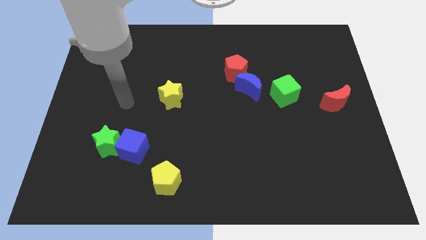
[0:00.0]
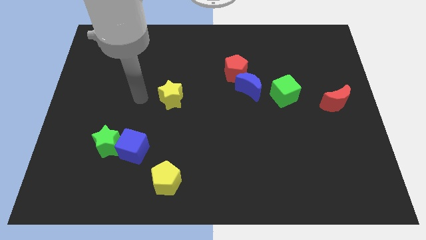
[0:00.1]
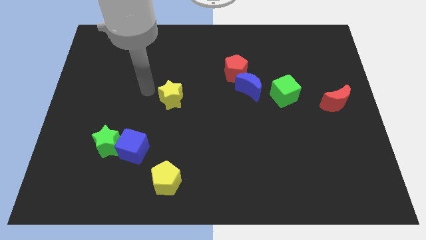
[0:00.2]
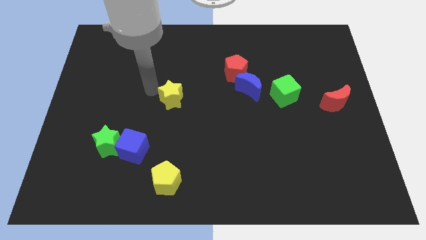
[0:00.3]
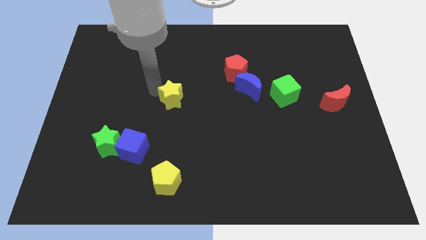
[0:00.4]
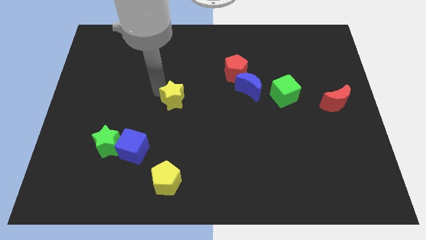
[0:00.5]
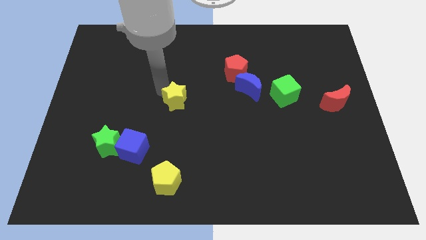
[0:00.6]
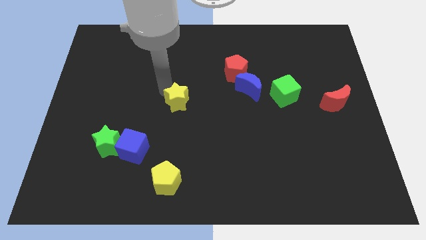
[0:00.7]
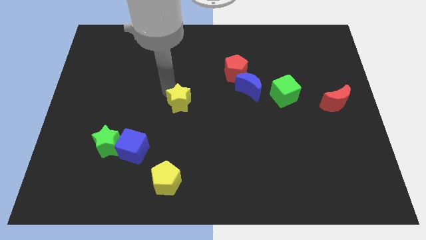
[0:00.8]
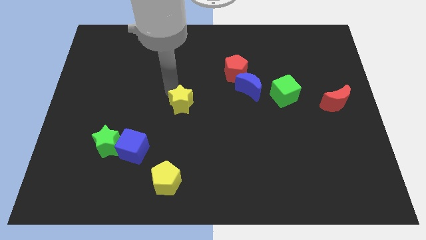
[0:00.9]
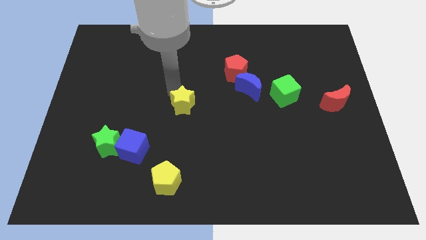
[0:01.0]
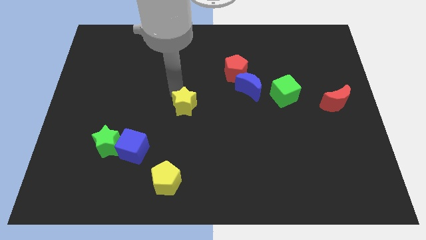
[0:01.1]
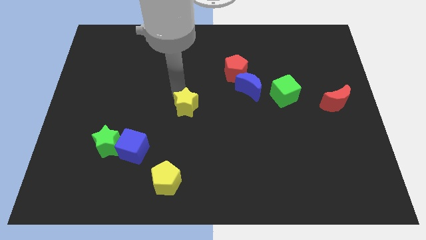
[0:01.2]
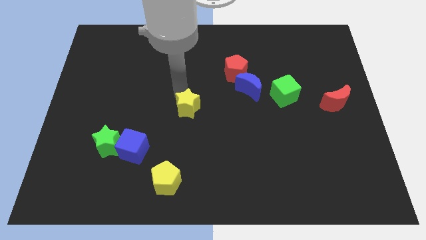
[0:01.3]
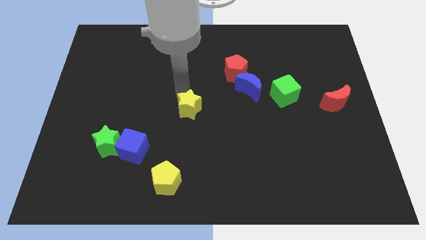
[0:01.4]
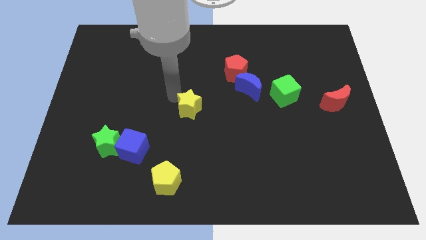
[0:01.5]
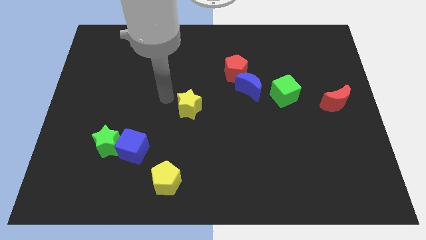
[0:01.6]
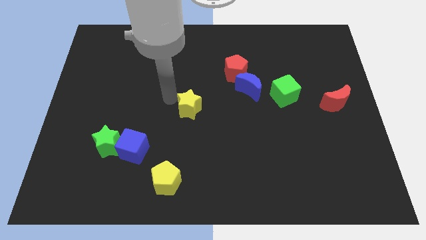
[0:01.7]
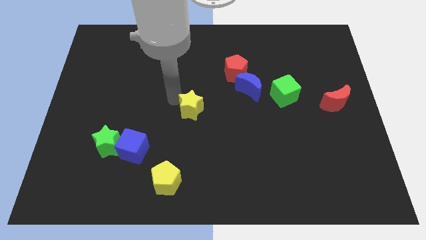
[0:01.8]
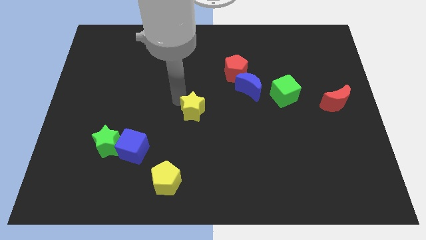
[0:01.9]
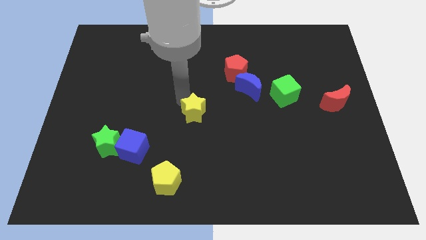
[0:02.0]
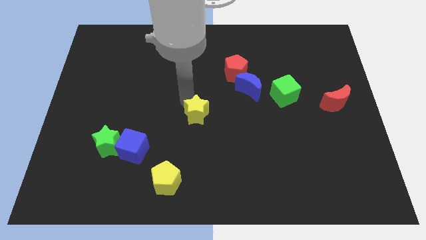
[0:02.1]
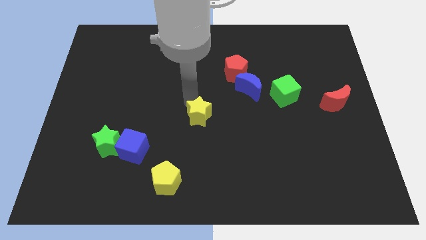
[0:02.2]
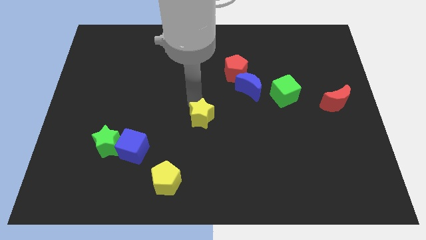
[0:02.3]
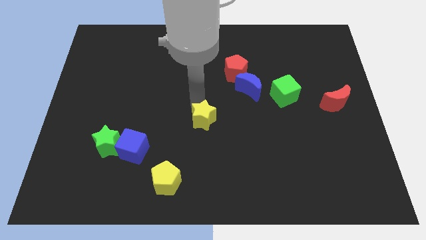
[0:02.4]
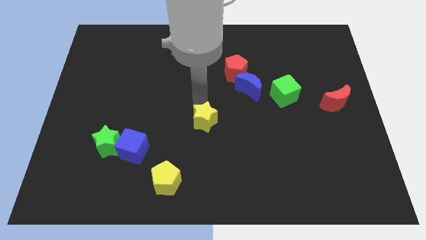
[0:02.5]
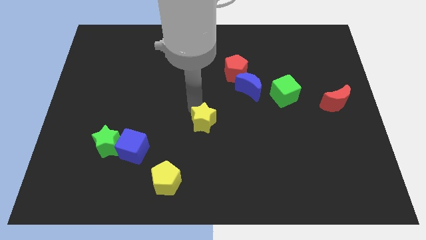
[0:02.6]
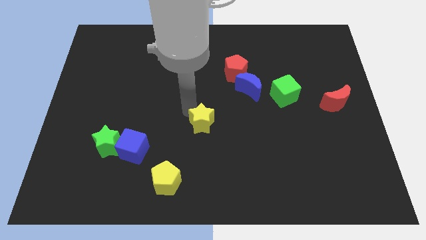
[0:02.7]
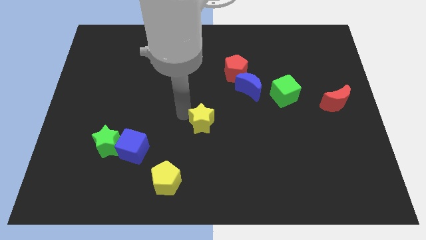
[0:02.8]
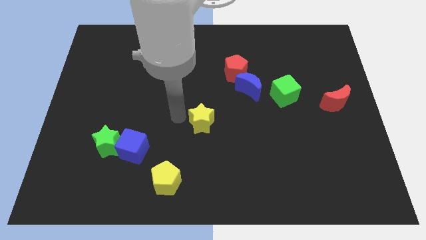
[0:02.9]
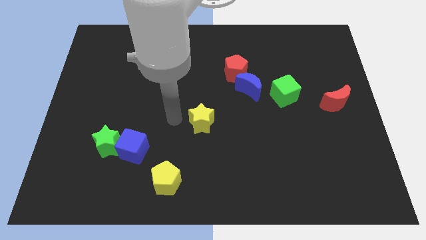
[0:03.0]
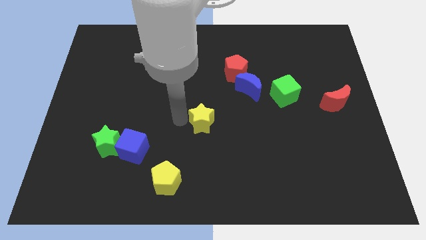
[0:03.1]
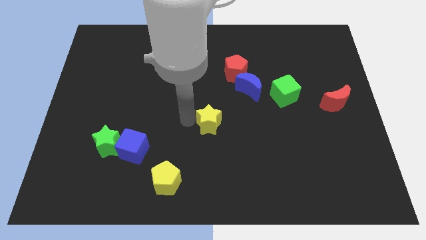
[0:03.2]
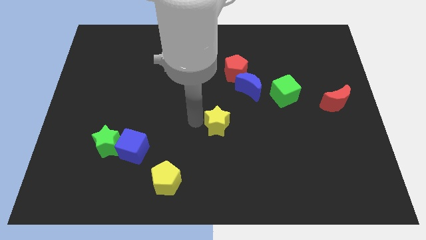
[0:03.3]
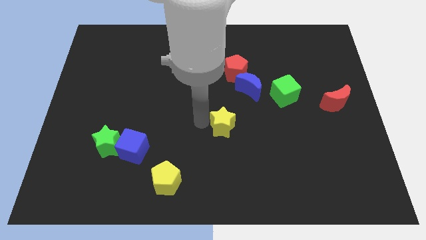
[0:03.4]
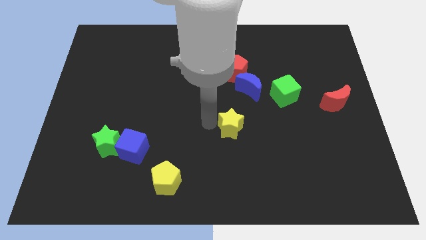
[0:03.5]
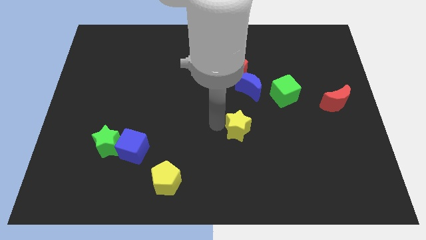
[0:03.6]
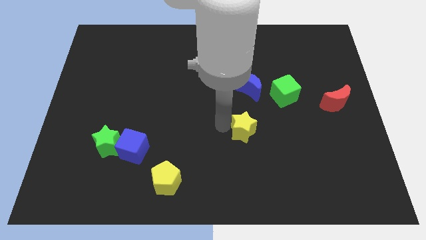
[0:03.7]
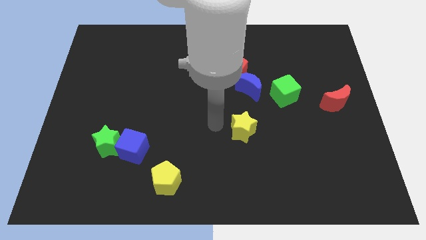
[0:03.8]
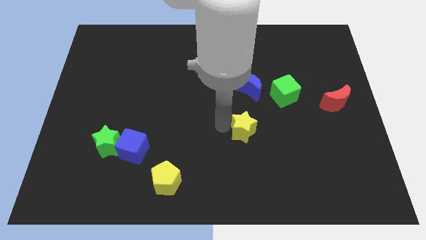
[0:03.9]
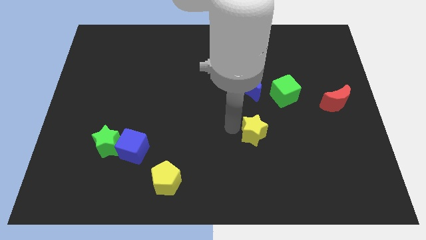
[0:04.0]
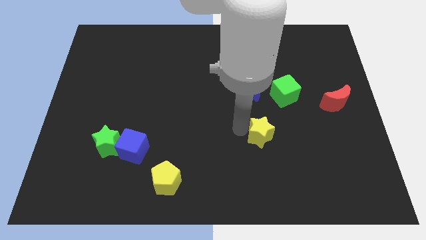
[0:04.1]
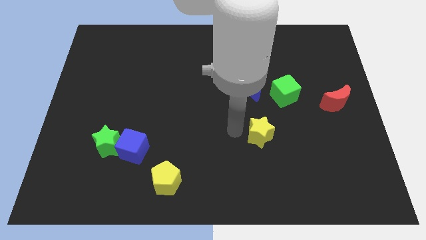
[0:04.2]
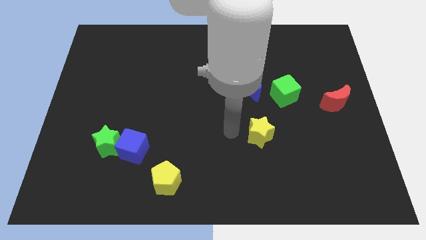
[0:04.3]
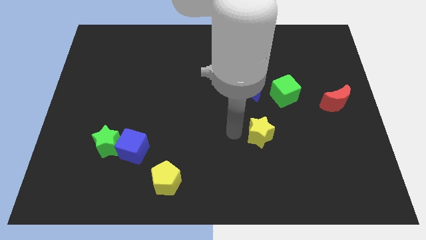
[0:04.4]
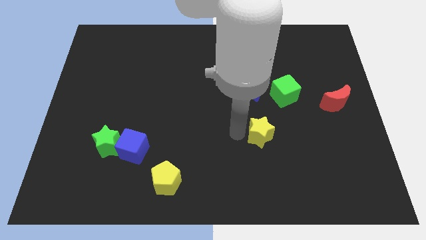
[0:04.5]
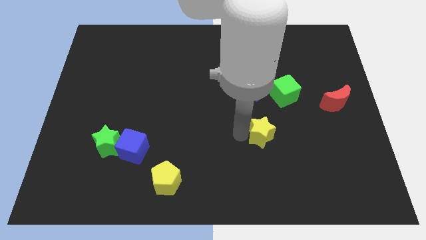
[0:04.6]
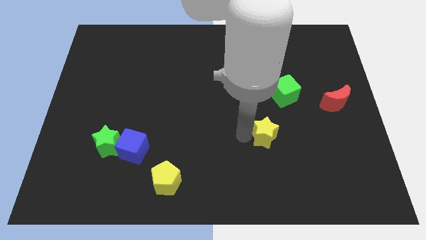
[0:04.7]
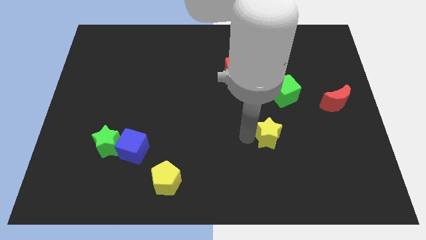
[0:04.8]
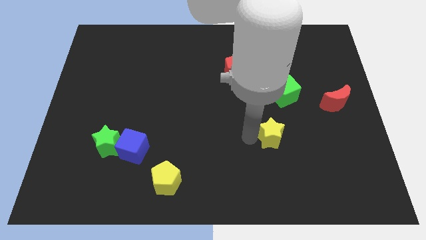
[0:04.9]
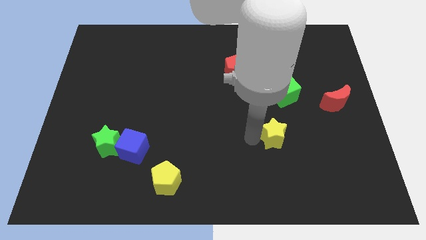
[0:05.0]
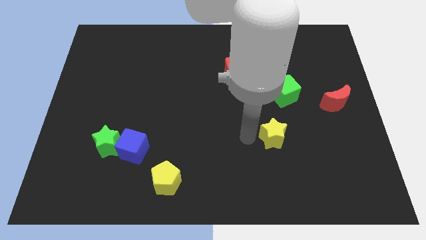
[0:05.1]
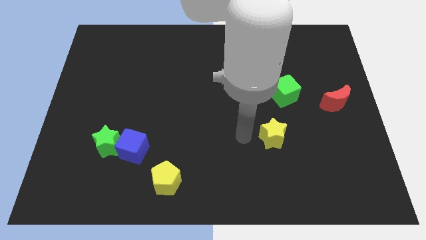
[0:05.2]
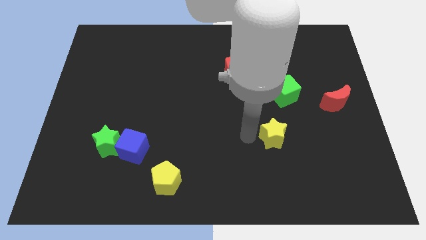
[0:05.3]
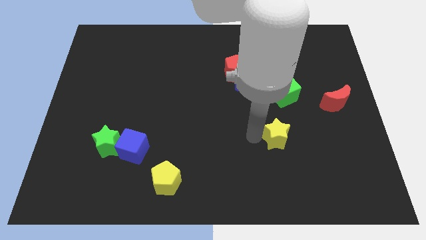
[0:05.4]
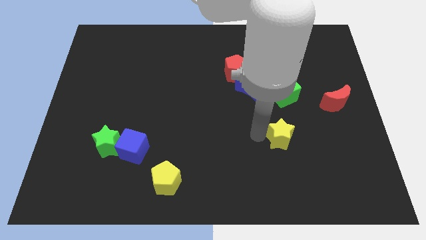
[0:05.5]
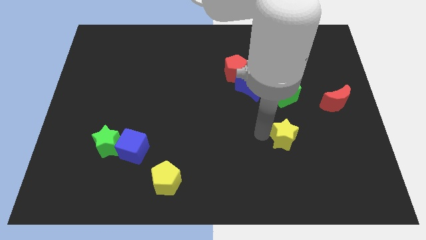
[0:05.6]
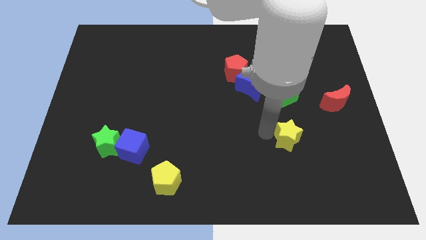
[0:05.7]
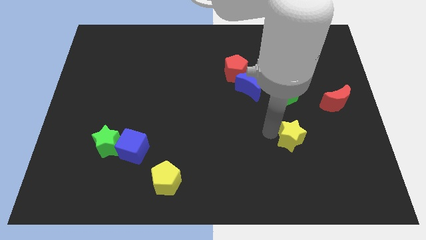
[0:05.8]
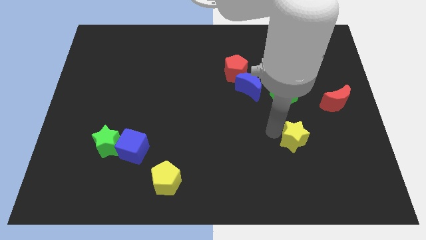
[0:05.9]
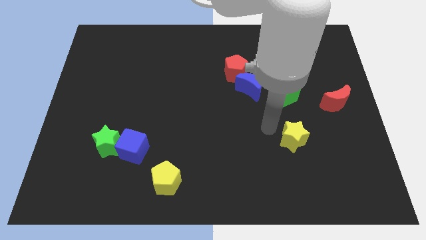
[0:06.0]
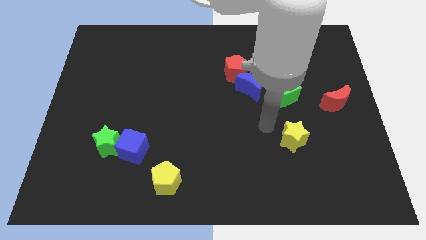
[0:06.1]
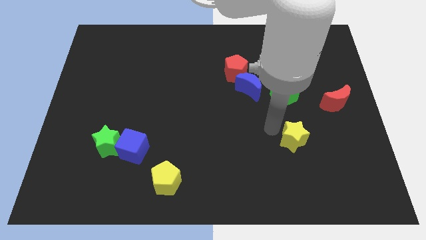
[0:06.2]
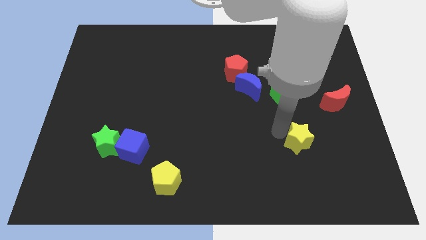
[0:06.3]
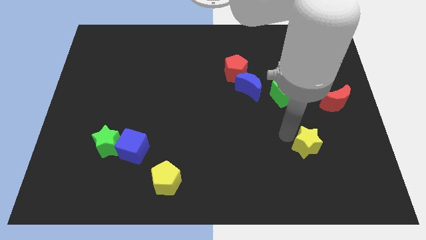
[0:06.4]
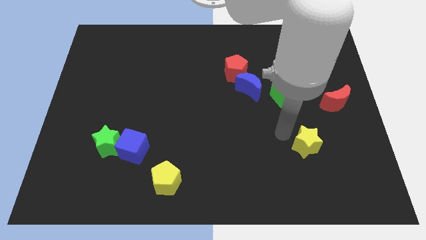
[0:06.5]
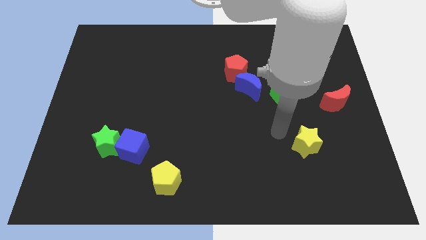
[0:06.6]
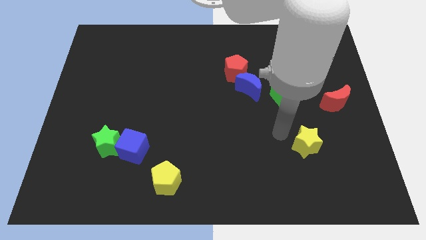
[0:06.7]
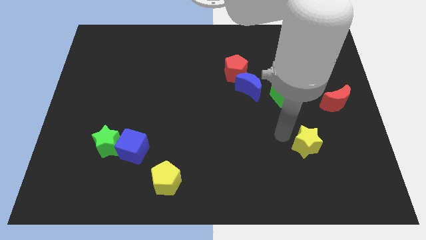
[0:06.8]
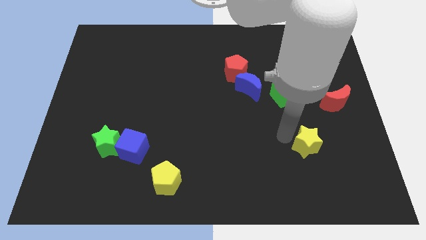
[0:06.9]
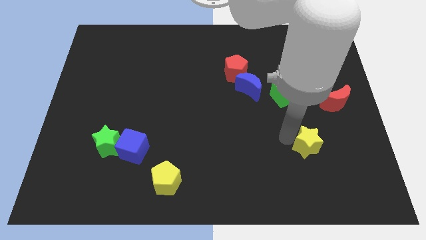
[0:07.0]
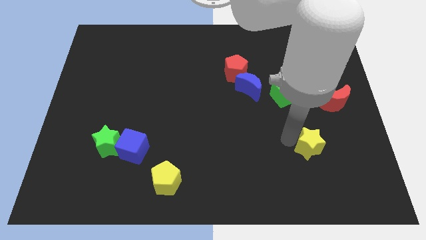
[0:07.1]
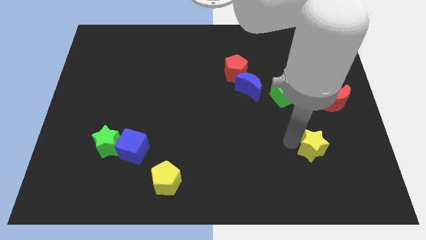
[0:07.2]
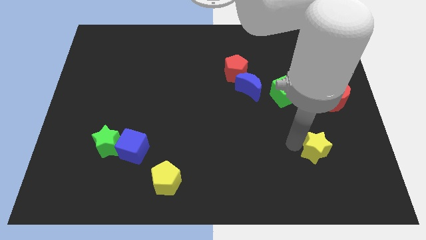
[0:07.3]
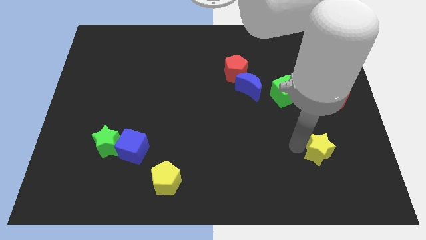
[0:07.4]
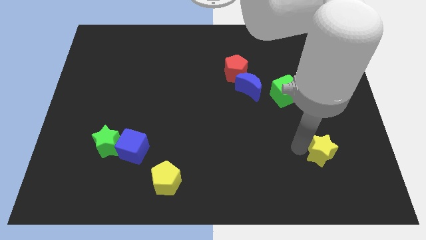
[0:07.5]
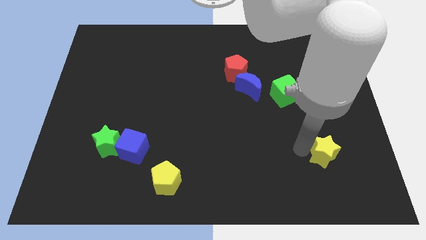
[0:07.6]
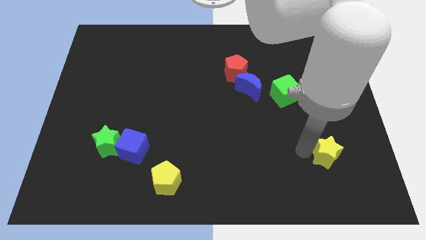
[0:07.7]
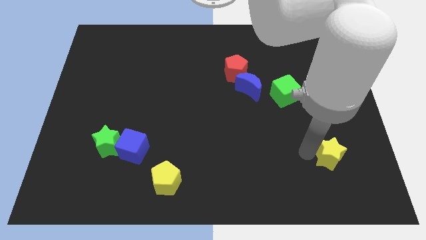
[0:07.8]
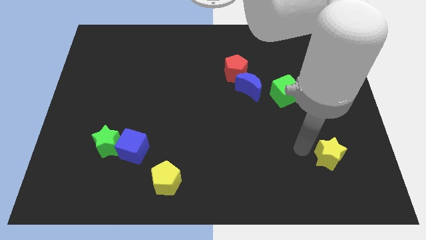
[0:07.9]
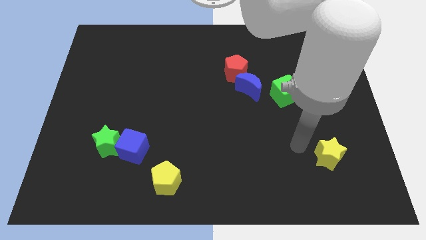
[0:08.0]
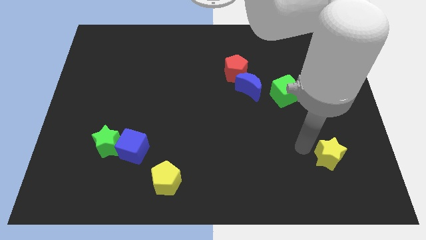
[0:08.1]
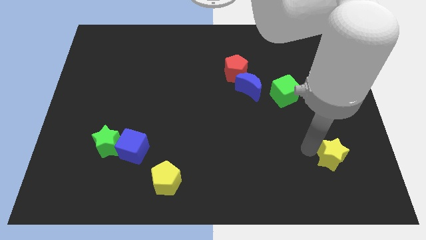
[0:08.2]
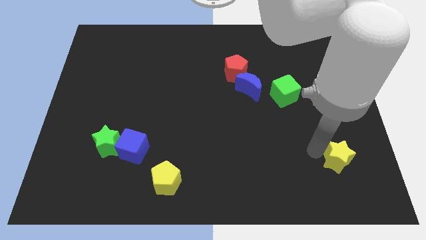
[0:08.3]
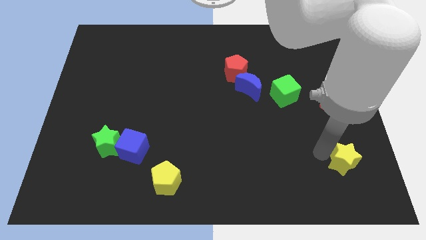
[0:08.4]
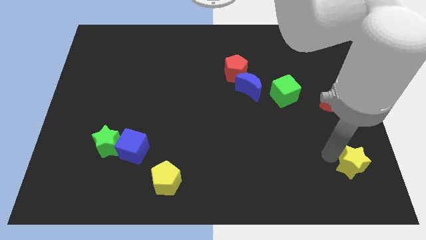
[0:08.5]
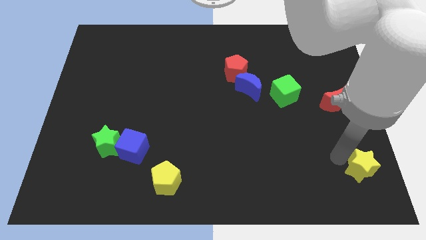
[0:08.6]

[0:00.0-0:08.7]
push the yellow star to the lower right corner
